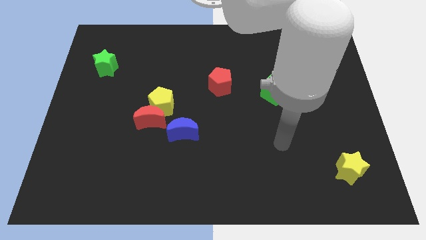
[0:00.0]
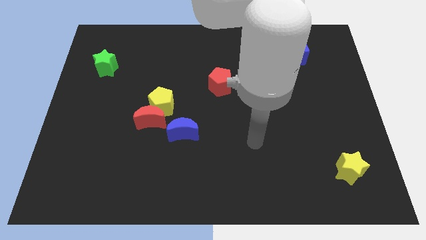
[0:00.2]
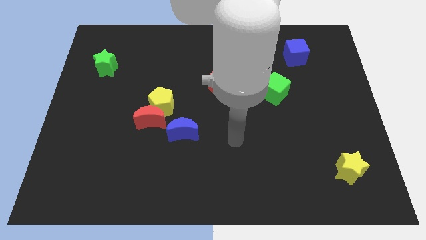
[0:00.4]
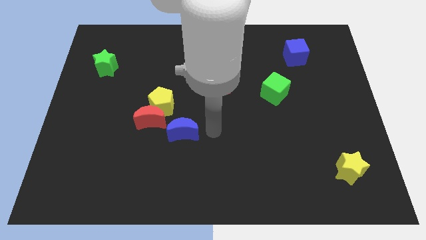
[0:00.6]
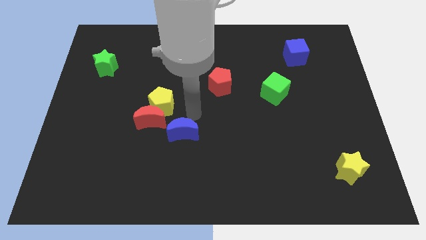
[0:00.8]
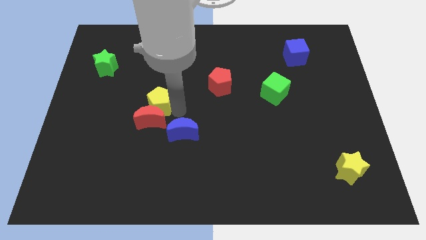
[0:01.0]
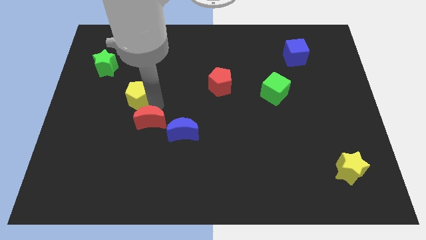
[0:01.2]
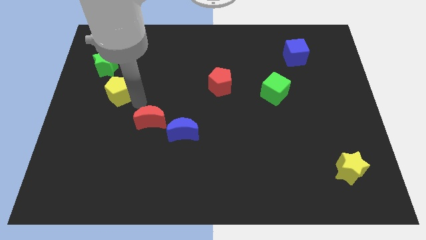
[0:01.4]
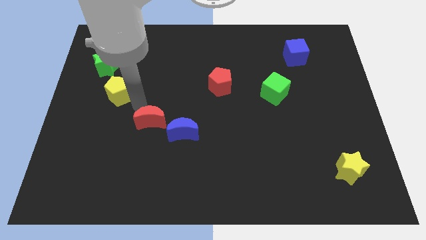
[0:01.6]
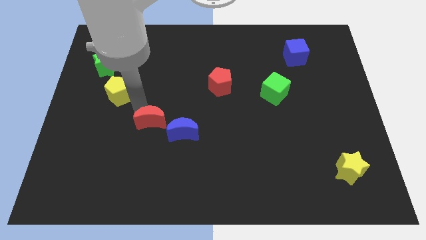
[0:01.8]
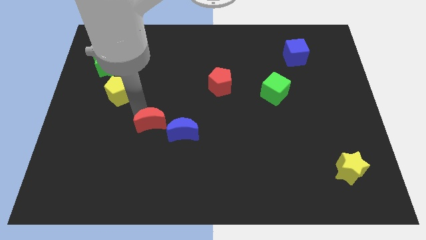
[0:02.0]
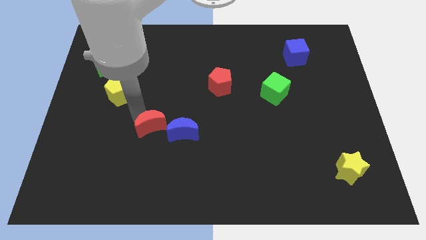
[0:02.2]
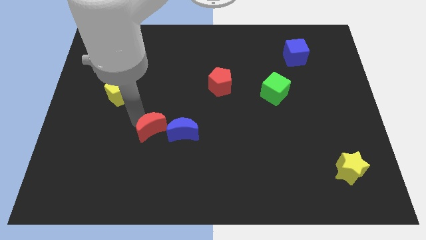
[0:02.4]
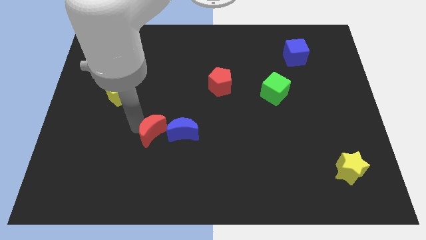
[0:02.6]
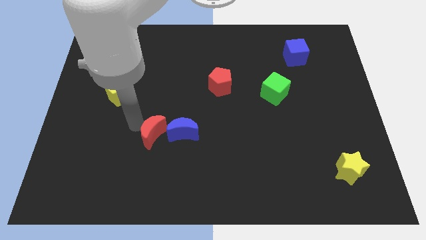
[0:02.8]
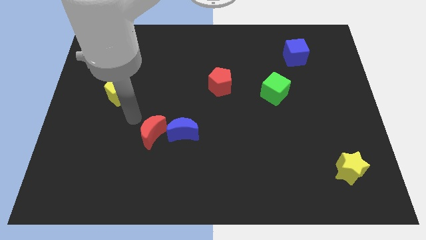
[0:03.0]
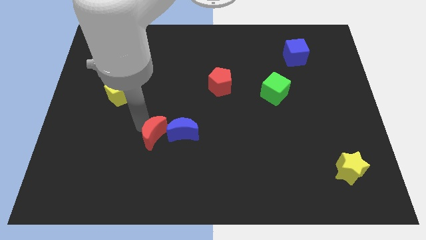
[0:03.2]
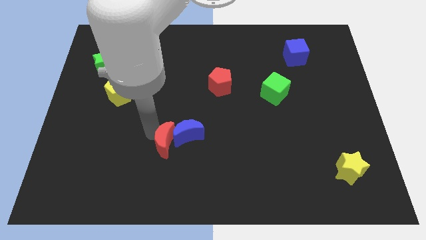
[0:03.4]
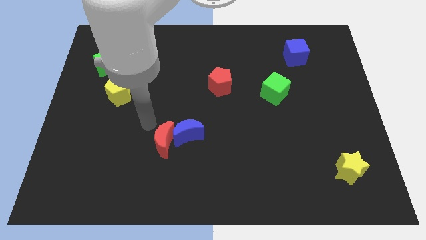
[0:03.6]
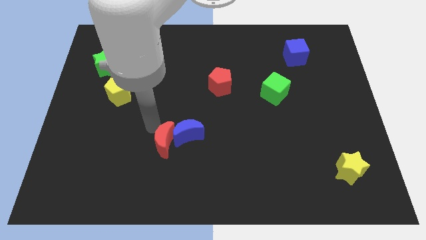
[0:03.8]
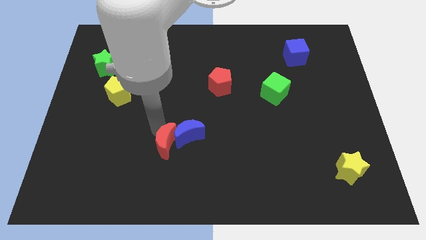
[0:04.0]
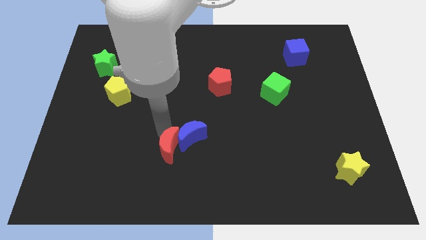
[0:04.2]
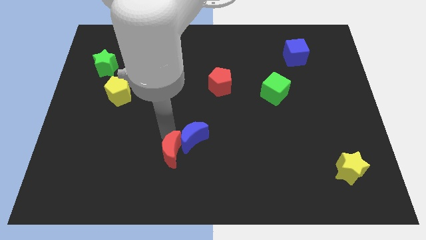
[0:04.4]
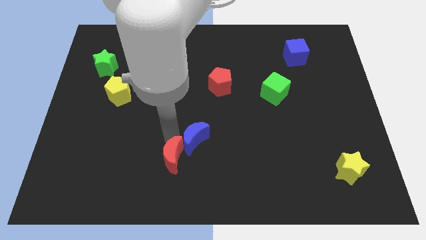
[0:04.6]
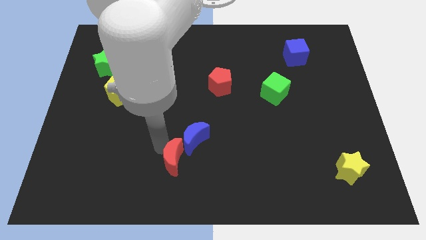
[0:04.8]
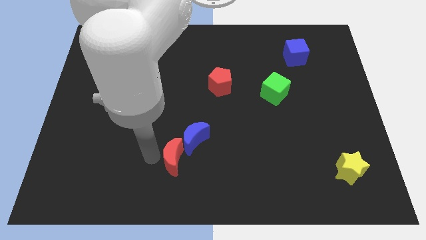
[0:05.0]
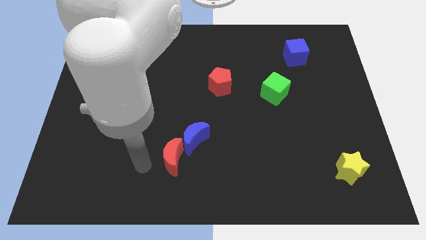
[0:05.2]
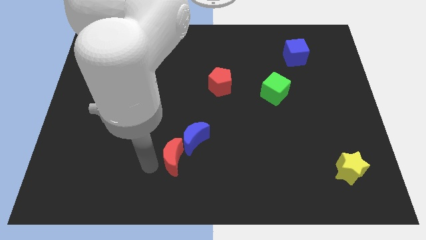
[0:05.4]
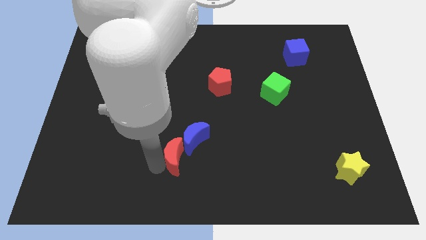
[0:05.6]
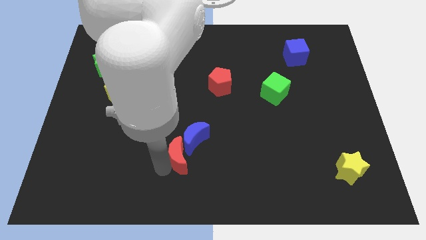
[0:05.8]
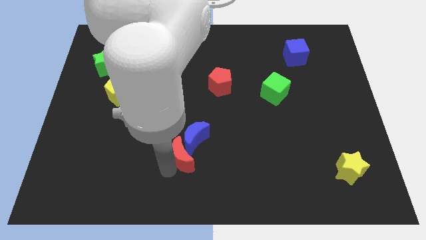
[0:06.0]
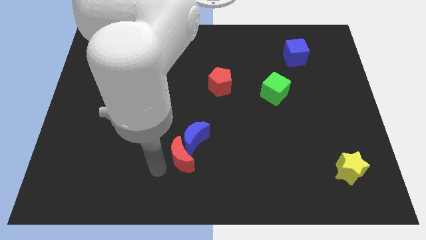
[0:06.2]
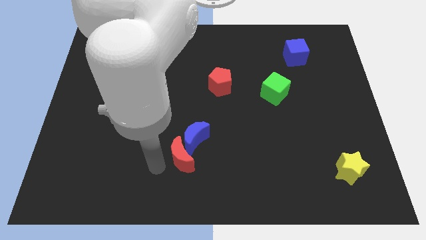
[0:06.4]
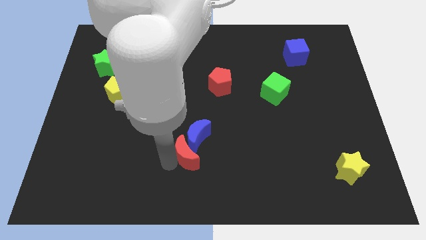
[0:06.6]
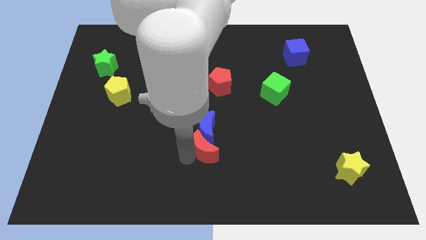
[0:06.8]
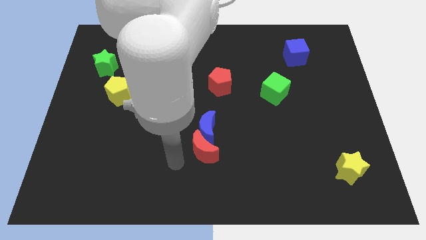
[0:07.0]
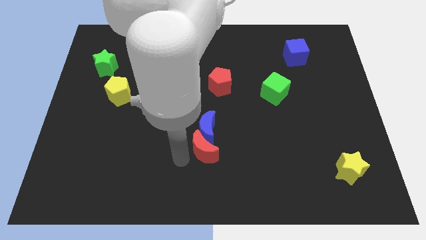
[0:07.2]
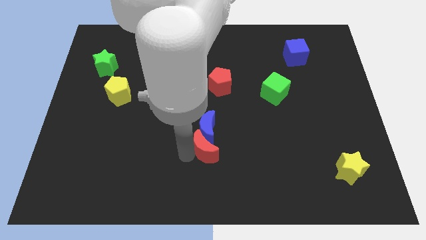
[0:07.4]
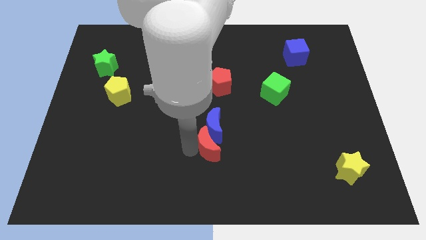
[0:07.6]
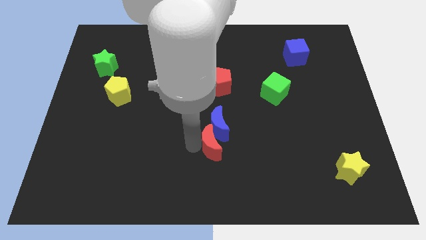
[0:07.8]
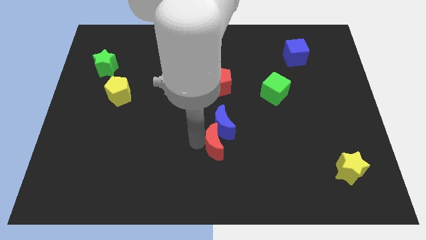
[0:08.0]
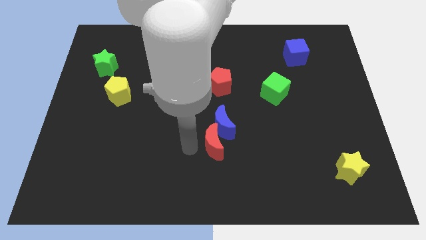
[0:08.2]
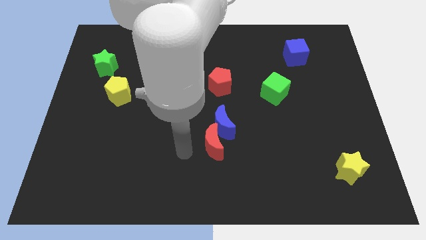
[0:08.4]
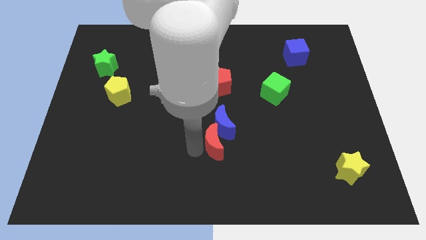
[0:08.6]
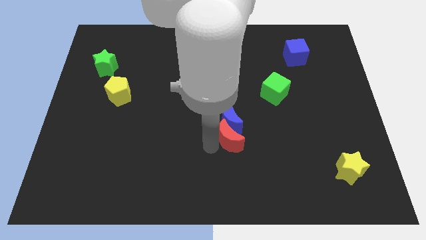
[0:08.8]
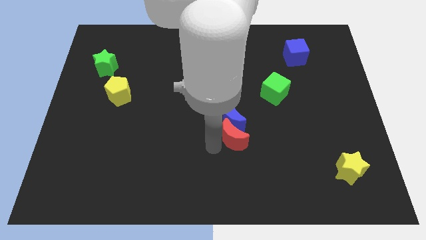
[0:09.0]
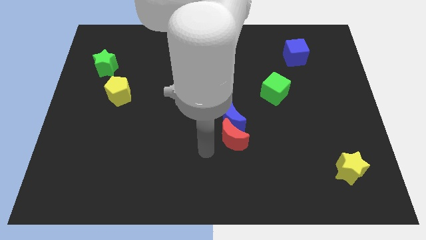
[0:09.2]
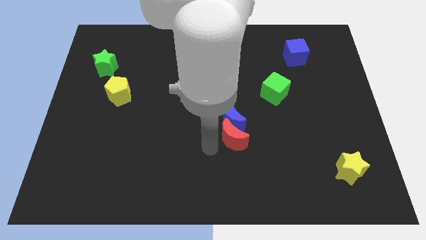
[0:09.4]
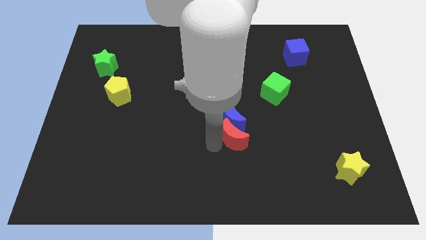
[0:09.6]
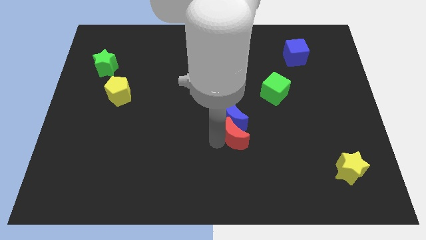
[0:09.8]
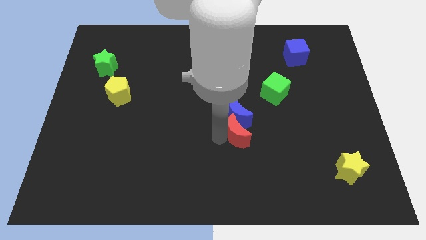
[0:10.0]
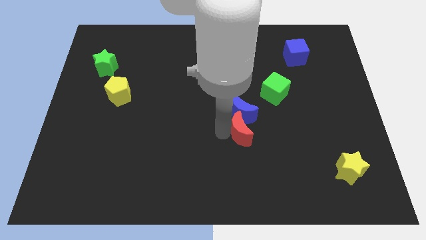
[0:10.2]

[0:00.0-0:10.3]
slide the red moon to the right

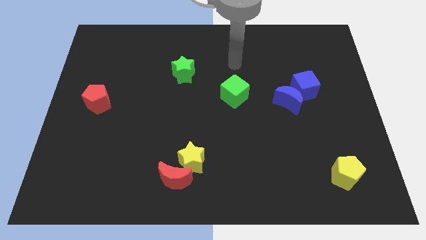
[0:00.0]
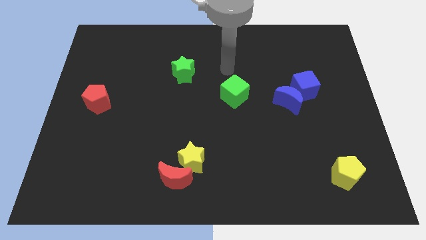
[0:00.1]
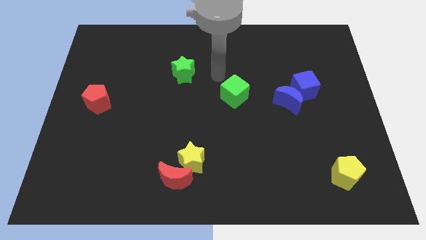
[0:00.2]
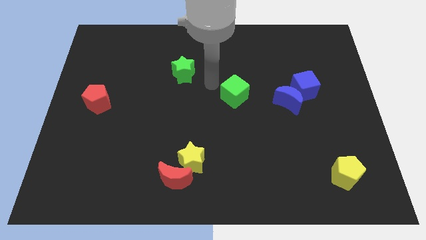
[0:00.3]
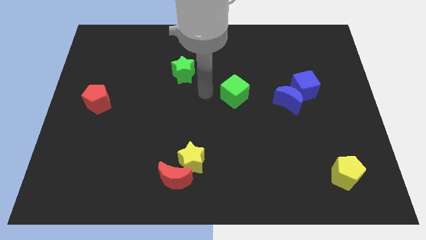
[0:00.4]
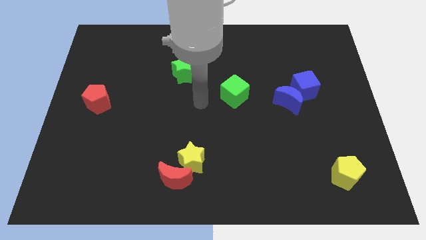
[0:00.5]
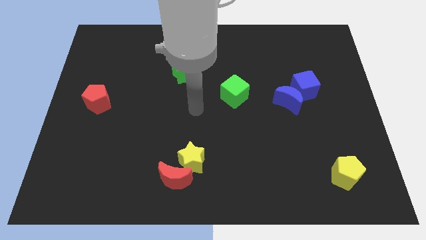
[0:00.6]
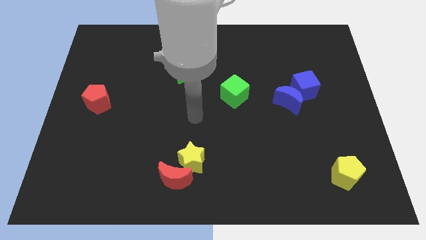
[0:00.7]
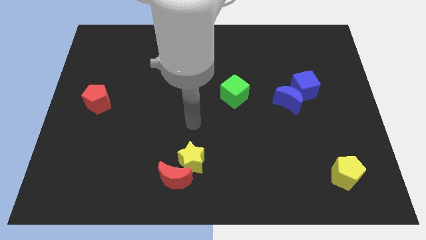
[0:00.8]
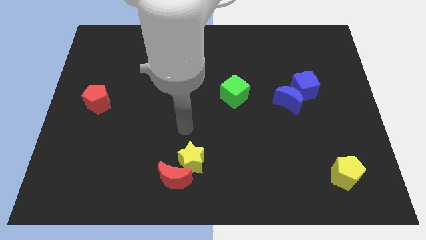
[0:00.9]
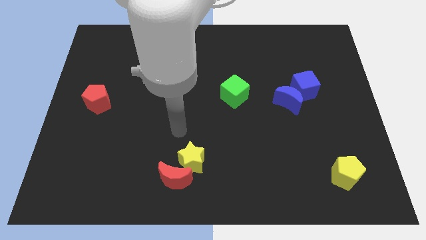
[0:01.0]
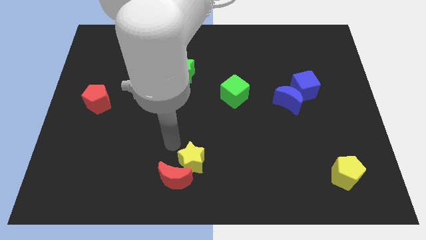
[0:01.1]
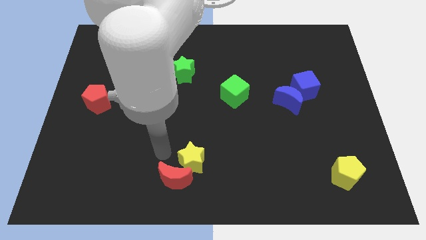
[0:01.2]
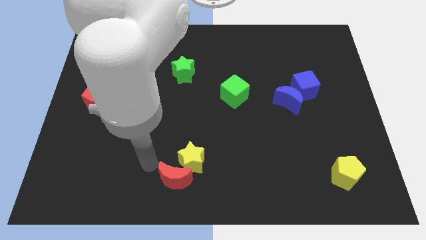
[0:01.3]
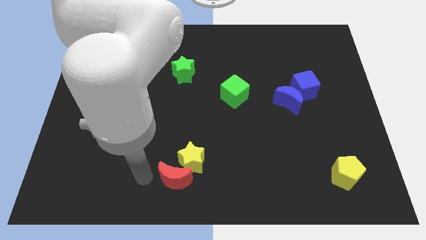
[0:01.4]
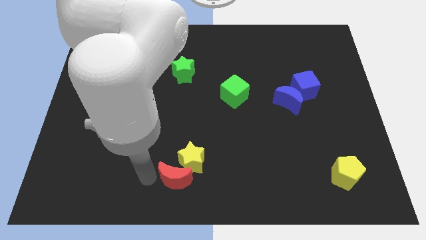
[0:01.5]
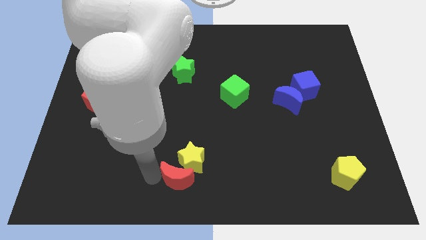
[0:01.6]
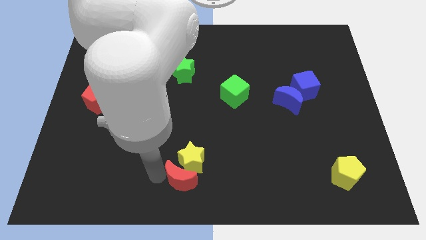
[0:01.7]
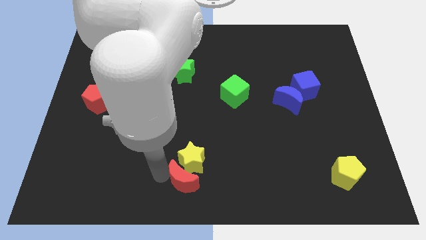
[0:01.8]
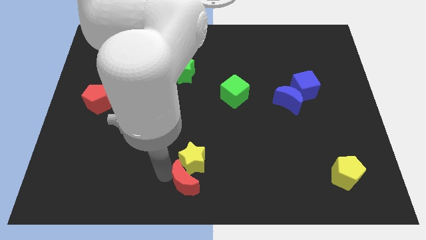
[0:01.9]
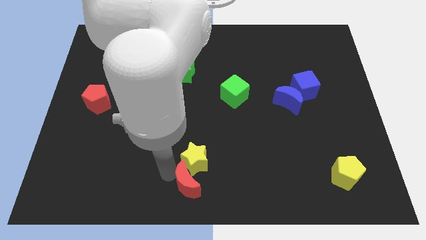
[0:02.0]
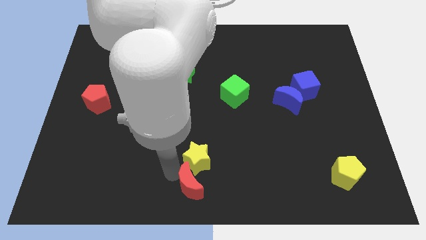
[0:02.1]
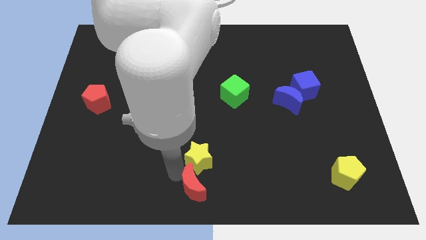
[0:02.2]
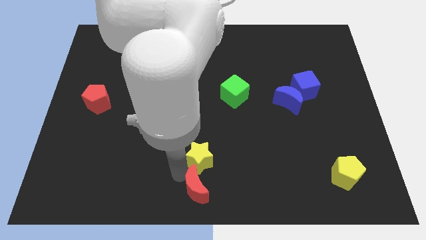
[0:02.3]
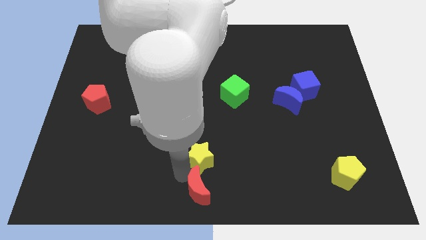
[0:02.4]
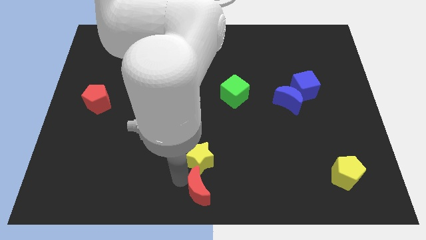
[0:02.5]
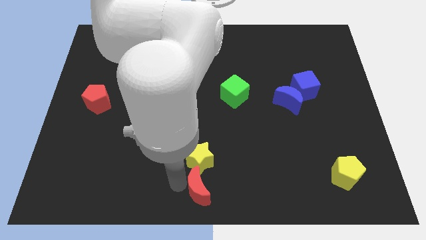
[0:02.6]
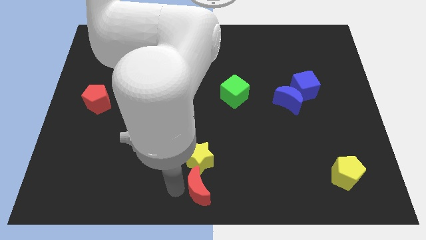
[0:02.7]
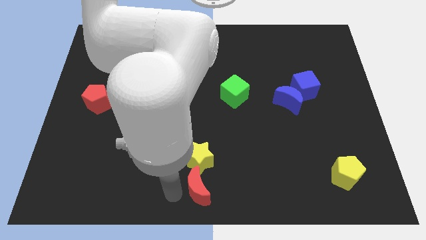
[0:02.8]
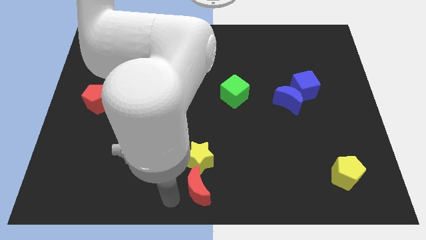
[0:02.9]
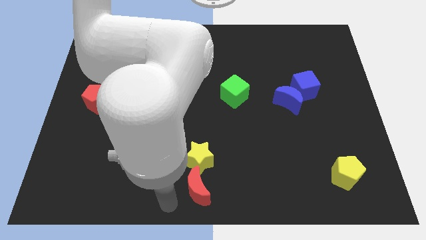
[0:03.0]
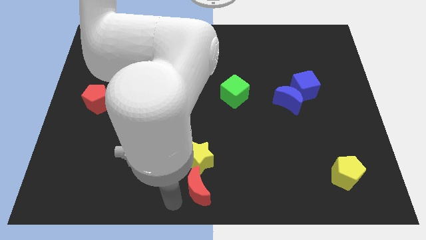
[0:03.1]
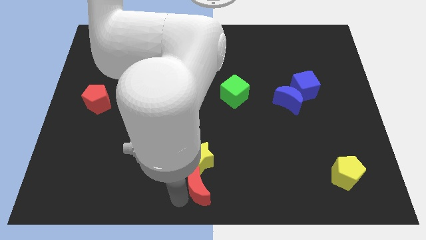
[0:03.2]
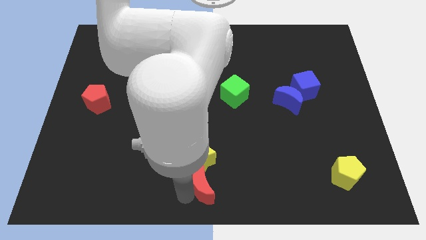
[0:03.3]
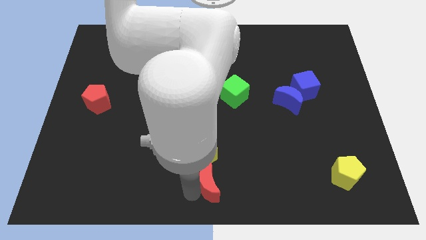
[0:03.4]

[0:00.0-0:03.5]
slide the red moon to the right a little
